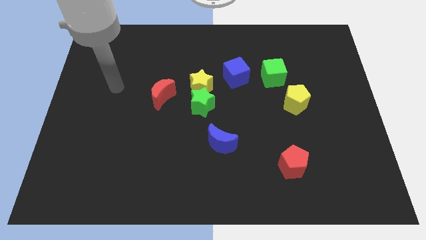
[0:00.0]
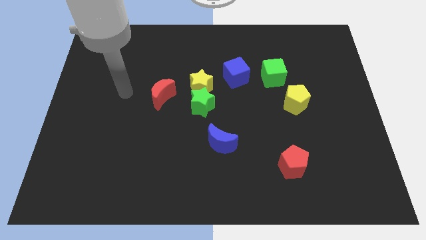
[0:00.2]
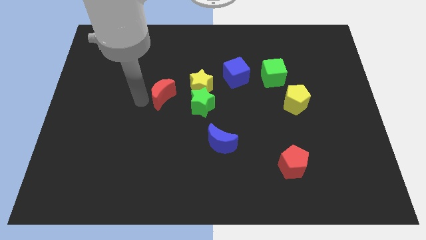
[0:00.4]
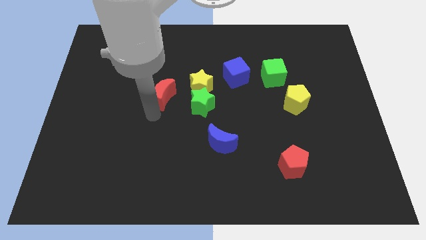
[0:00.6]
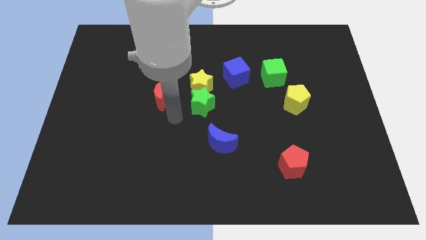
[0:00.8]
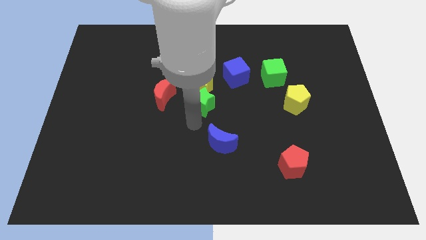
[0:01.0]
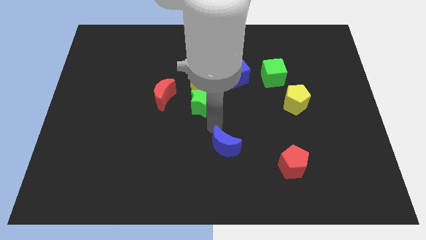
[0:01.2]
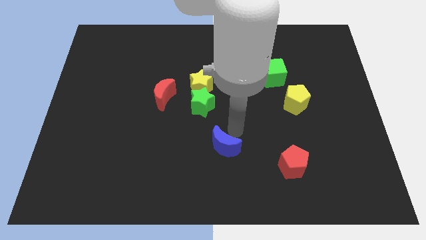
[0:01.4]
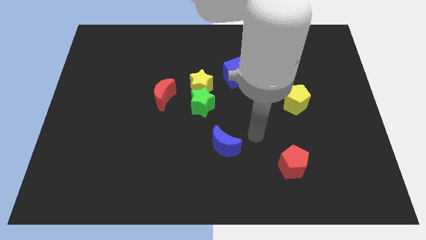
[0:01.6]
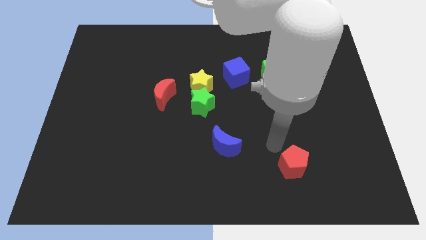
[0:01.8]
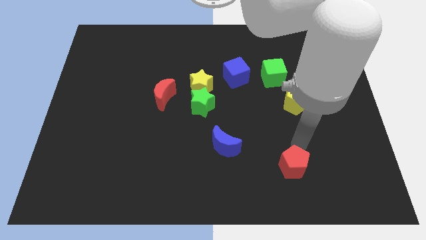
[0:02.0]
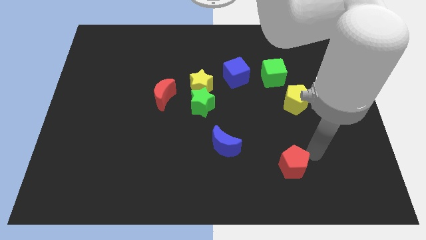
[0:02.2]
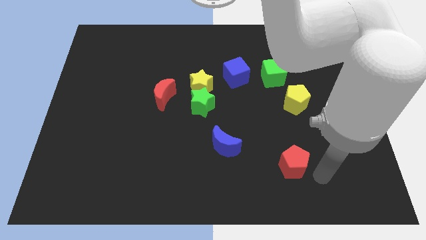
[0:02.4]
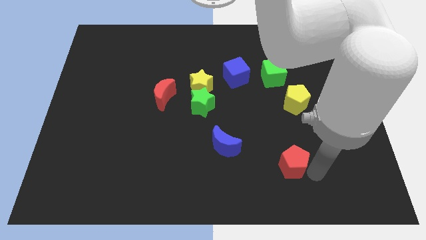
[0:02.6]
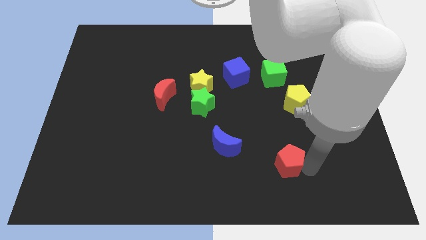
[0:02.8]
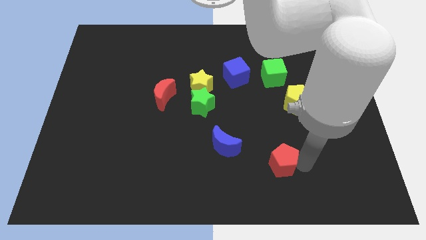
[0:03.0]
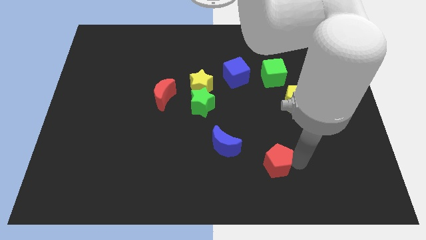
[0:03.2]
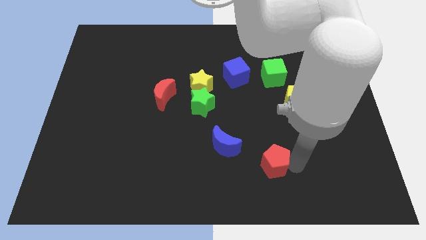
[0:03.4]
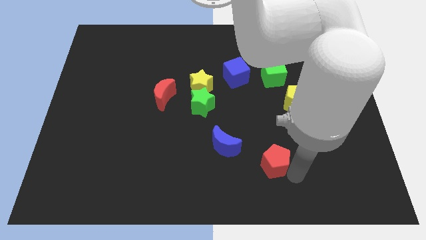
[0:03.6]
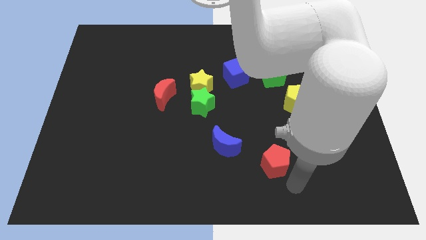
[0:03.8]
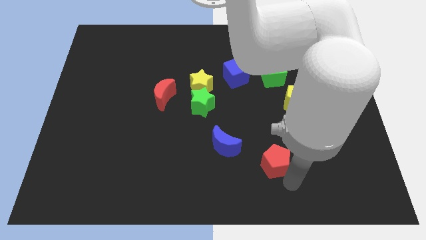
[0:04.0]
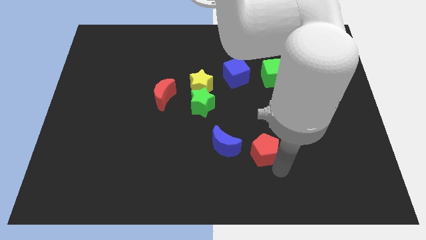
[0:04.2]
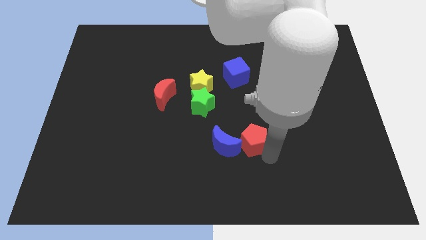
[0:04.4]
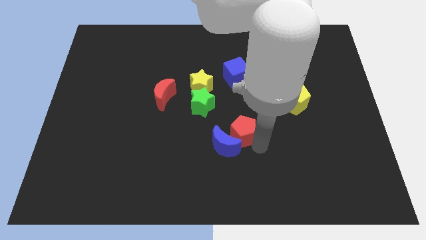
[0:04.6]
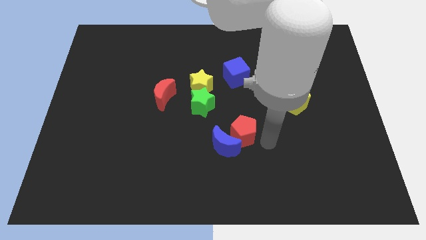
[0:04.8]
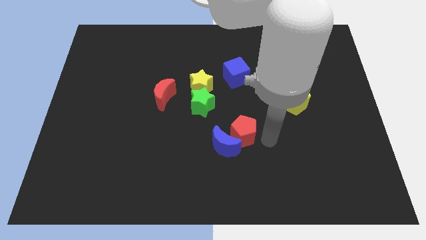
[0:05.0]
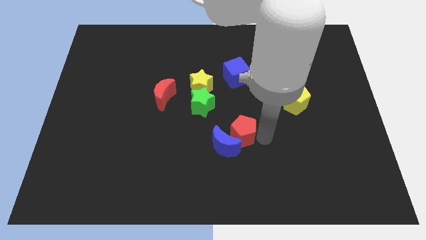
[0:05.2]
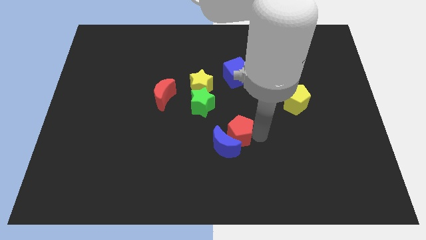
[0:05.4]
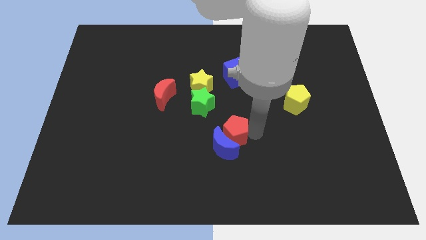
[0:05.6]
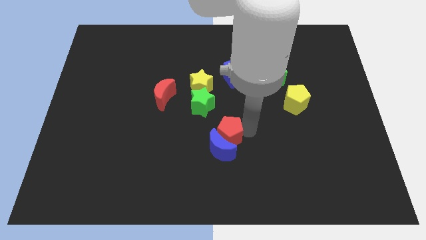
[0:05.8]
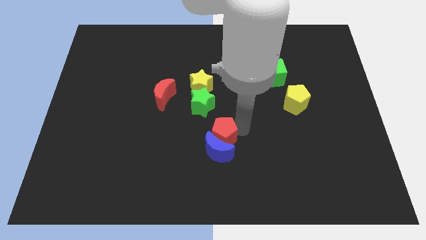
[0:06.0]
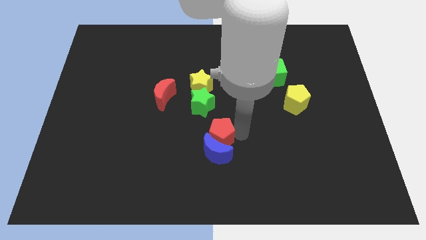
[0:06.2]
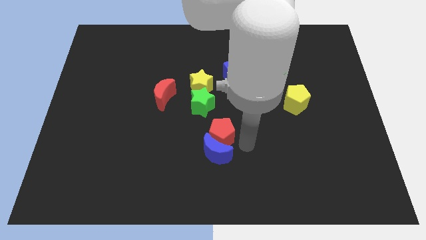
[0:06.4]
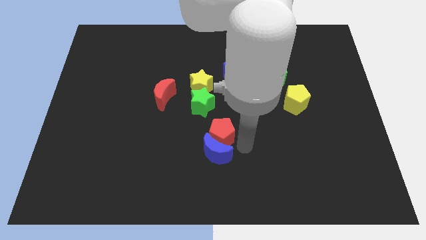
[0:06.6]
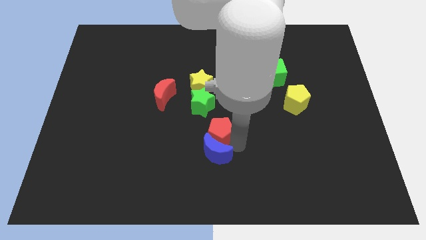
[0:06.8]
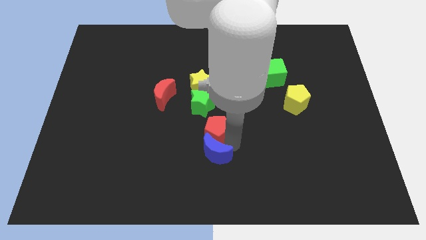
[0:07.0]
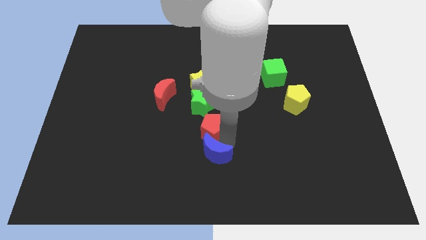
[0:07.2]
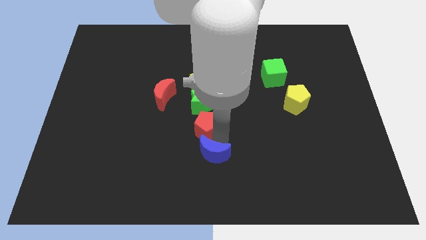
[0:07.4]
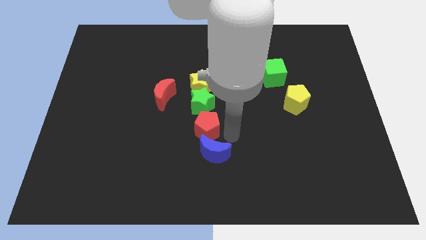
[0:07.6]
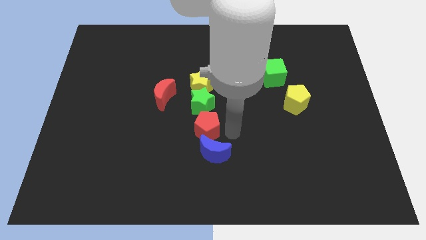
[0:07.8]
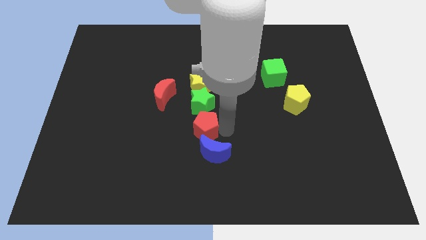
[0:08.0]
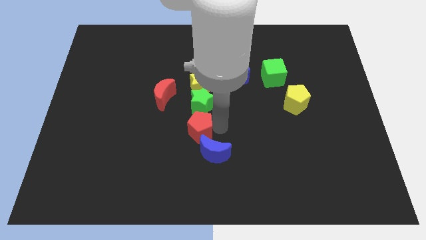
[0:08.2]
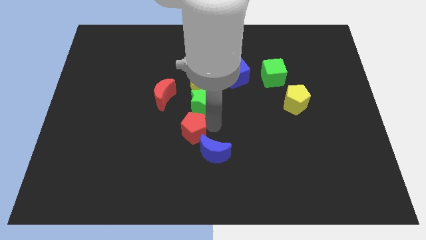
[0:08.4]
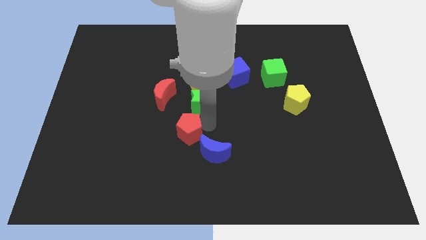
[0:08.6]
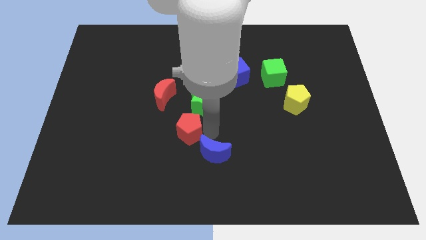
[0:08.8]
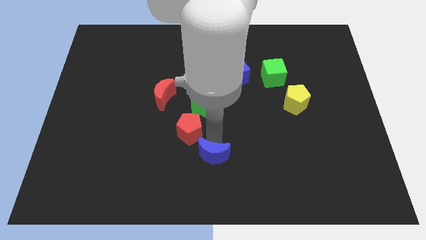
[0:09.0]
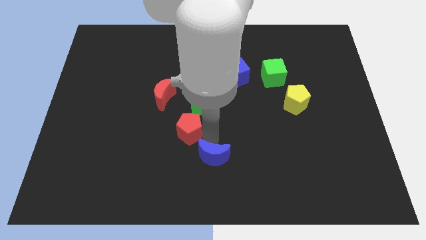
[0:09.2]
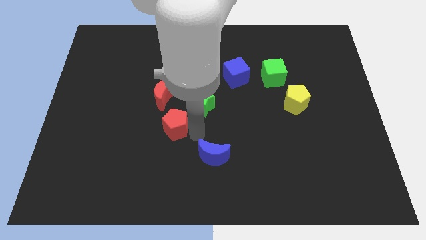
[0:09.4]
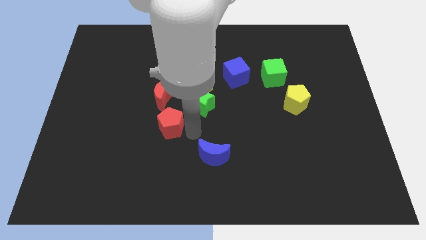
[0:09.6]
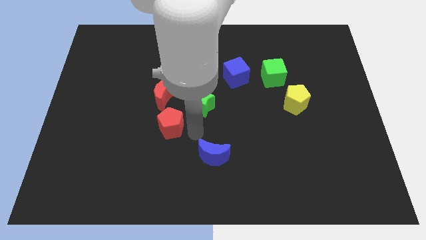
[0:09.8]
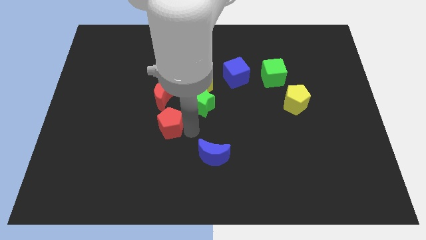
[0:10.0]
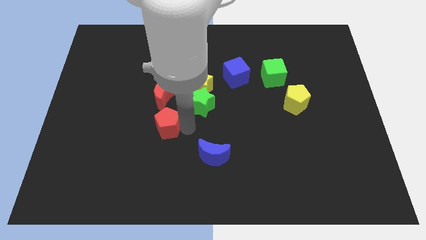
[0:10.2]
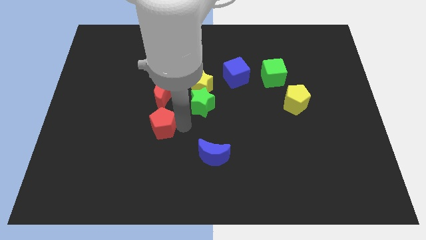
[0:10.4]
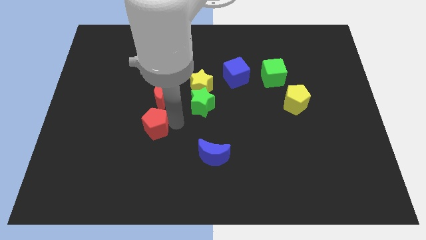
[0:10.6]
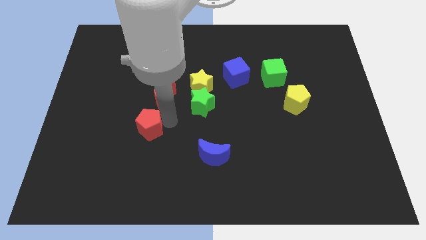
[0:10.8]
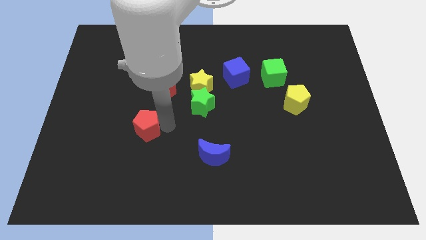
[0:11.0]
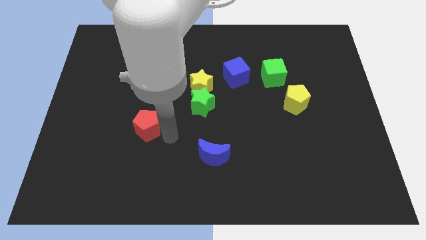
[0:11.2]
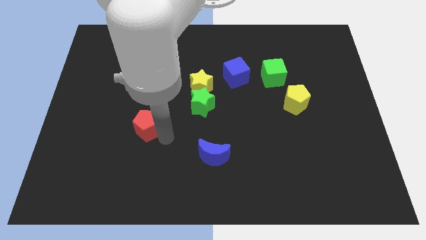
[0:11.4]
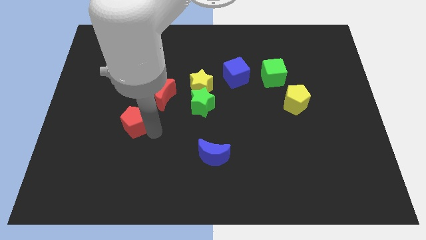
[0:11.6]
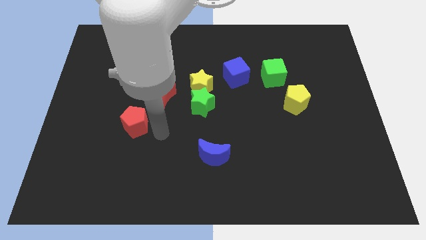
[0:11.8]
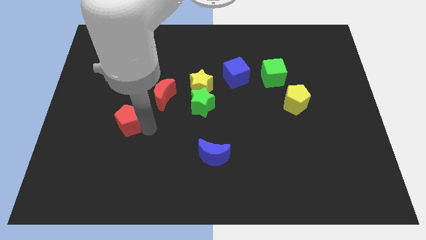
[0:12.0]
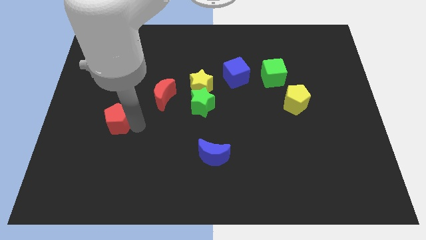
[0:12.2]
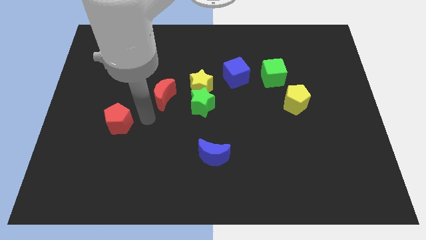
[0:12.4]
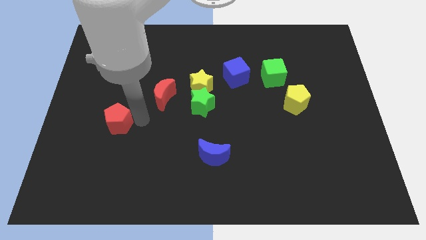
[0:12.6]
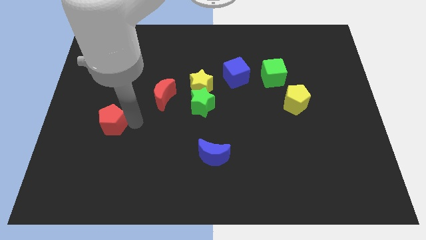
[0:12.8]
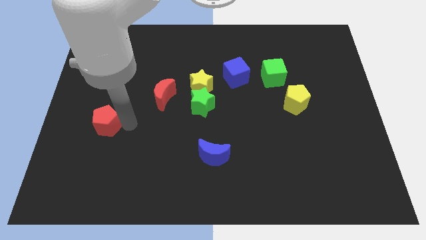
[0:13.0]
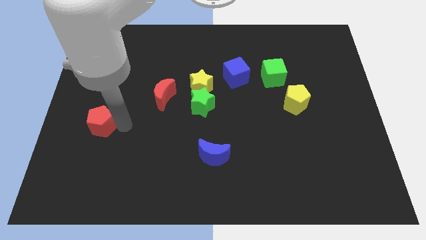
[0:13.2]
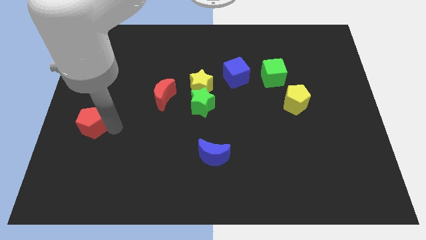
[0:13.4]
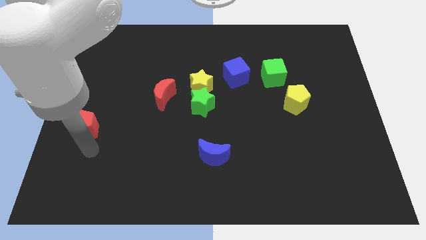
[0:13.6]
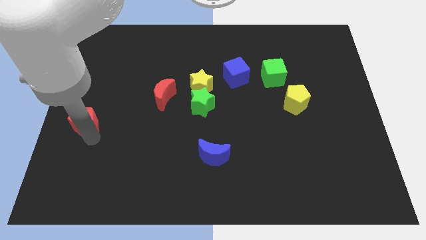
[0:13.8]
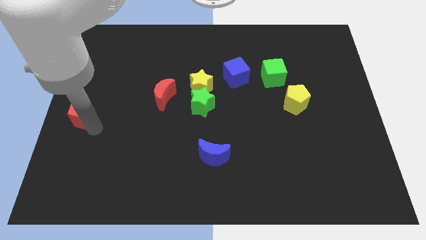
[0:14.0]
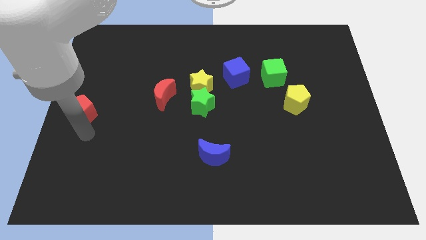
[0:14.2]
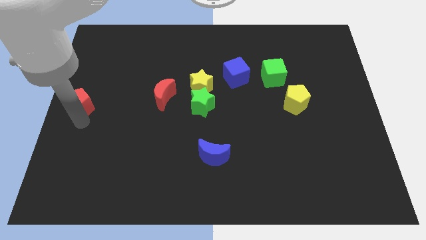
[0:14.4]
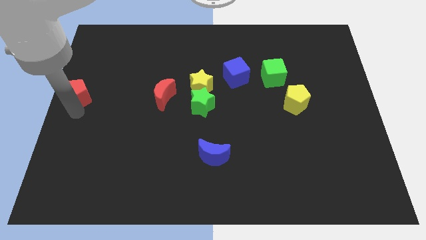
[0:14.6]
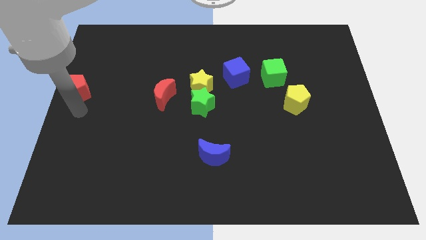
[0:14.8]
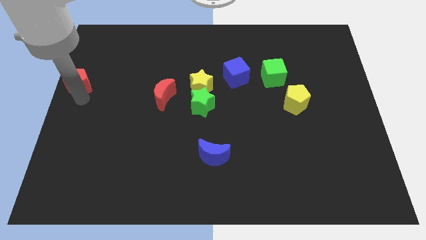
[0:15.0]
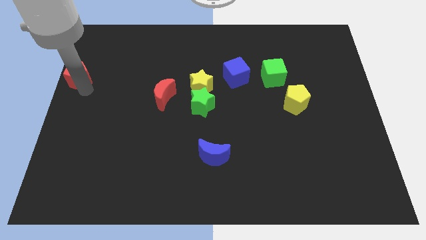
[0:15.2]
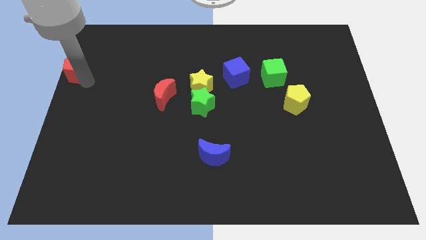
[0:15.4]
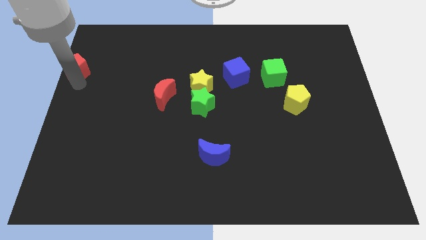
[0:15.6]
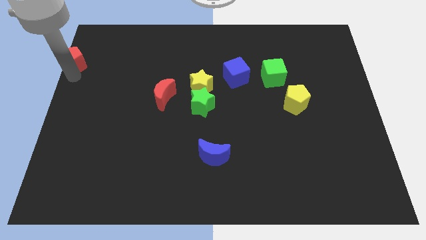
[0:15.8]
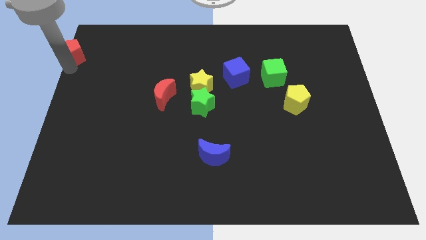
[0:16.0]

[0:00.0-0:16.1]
put the red pentagon to the upper left corner
